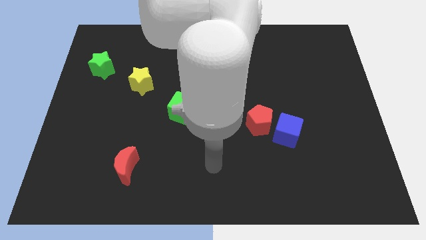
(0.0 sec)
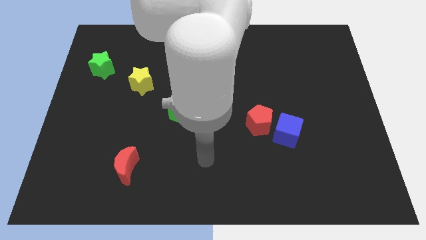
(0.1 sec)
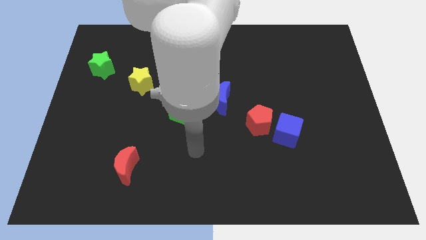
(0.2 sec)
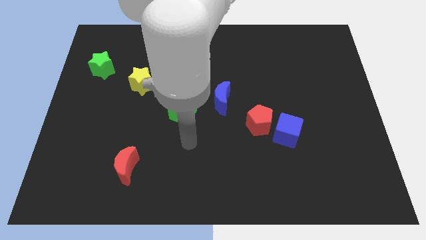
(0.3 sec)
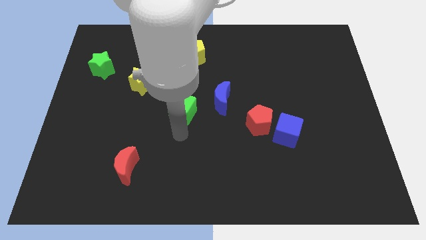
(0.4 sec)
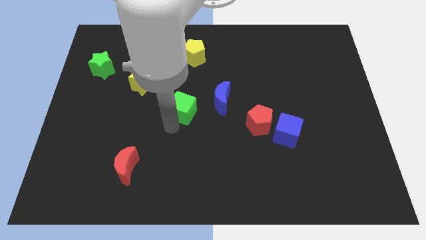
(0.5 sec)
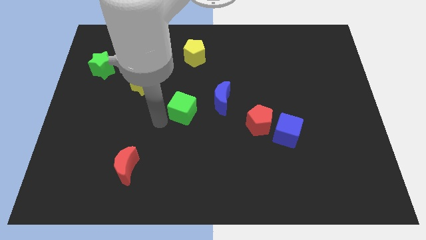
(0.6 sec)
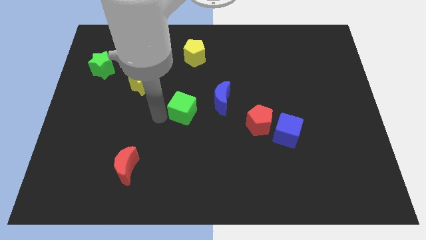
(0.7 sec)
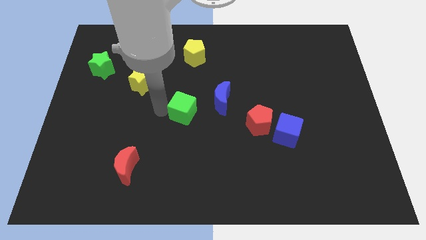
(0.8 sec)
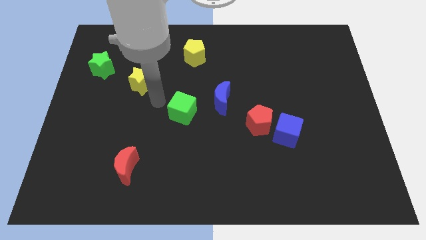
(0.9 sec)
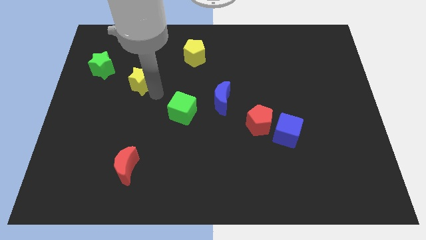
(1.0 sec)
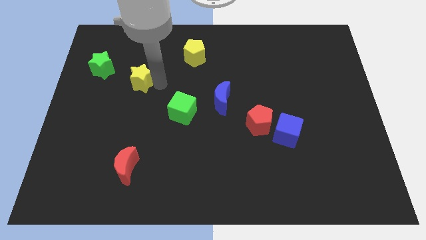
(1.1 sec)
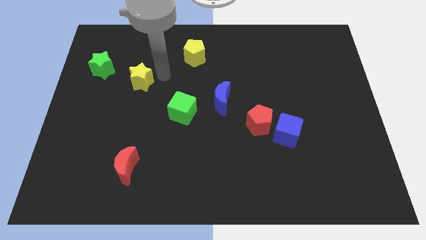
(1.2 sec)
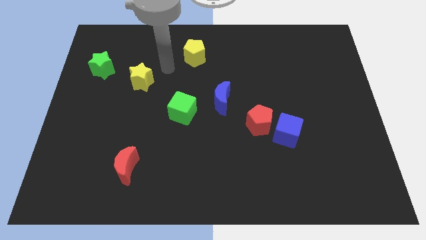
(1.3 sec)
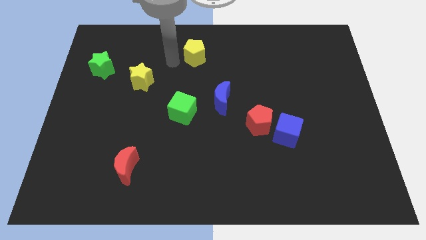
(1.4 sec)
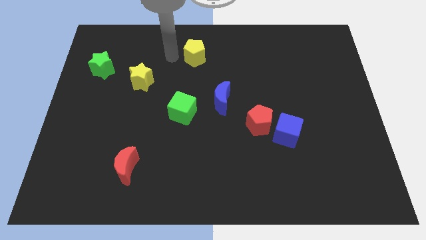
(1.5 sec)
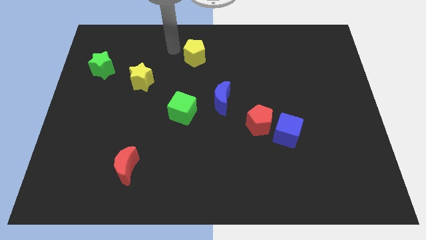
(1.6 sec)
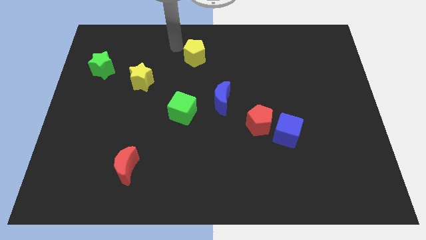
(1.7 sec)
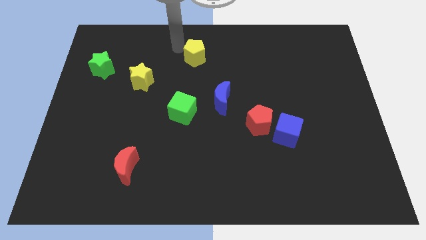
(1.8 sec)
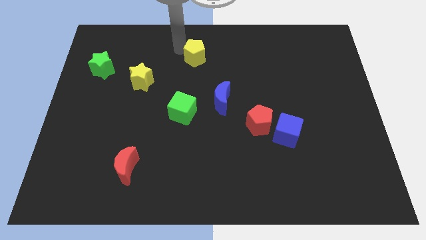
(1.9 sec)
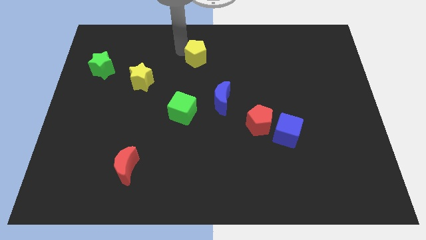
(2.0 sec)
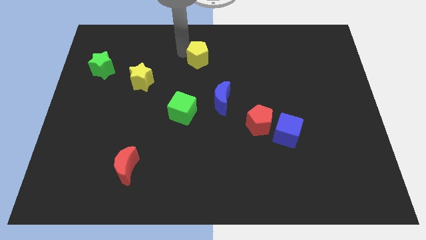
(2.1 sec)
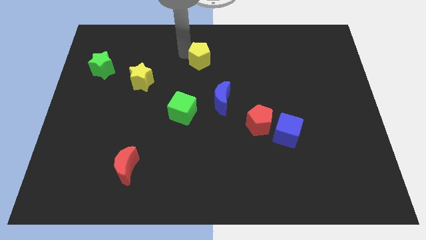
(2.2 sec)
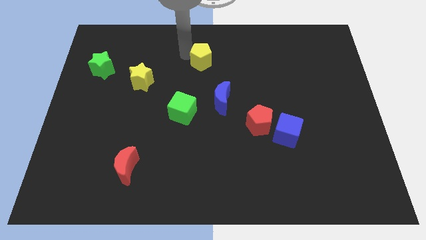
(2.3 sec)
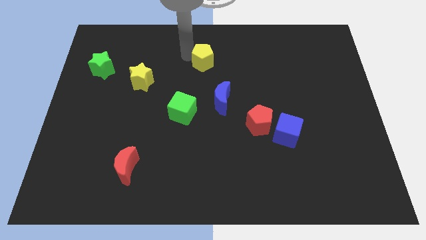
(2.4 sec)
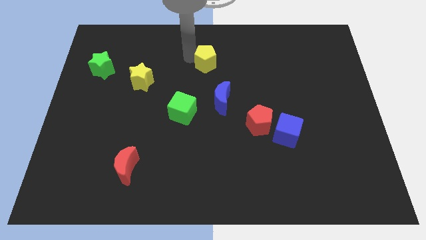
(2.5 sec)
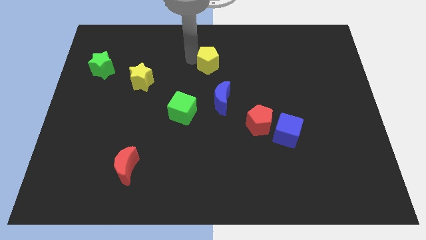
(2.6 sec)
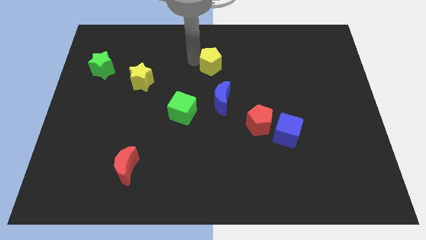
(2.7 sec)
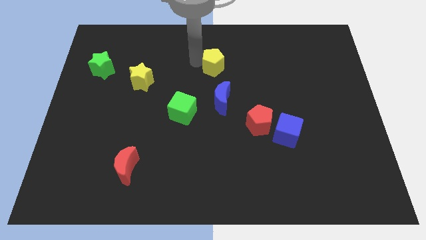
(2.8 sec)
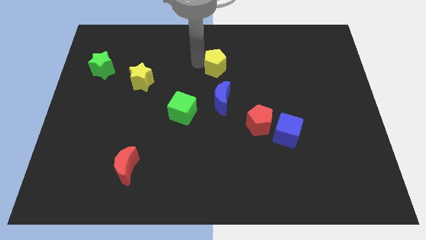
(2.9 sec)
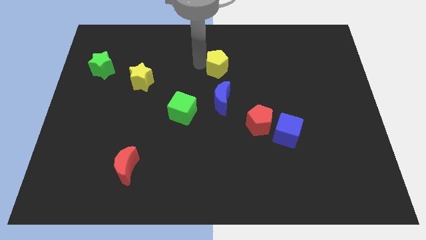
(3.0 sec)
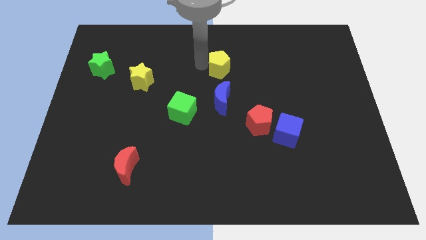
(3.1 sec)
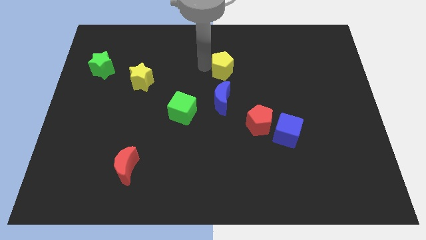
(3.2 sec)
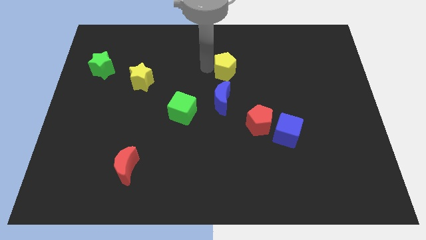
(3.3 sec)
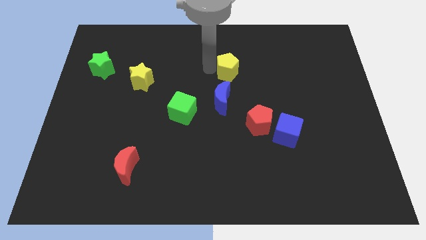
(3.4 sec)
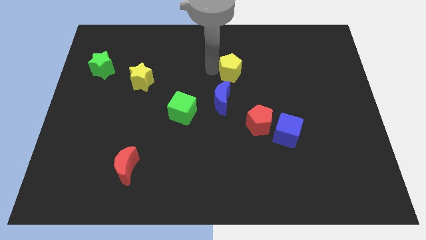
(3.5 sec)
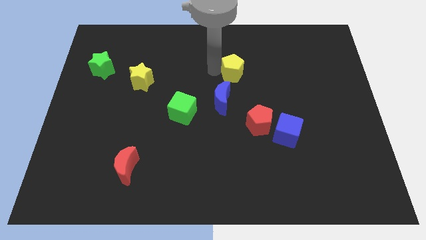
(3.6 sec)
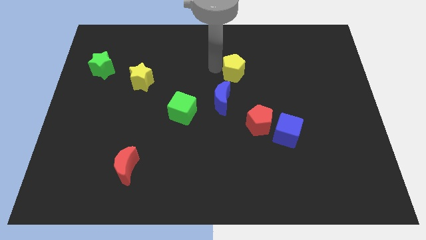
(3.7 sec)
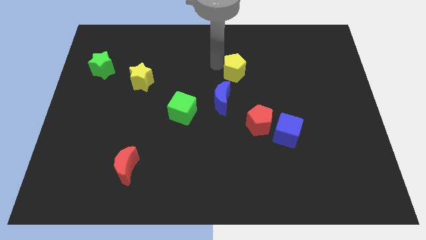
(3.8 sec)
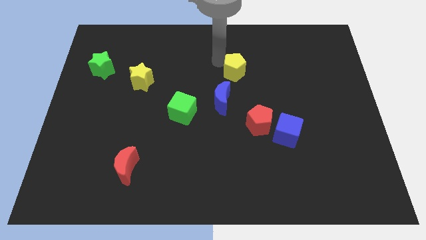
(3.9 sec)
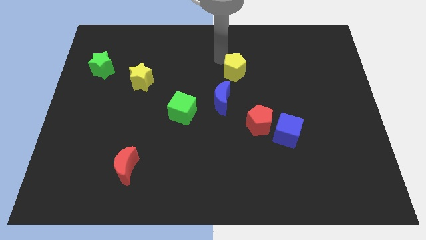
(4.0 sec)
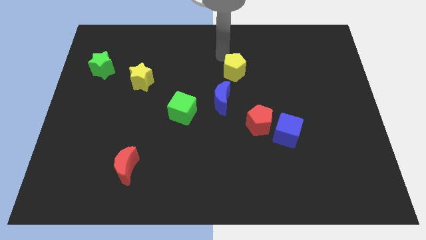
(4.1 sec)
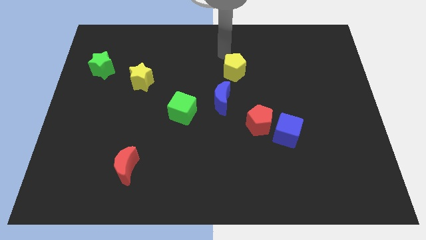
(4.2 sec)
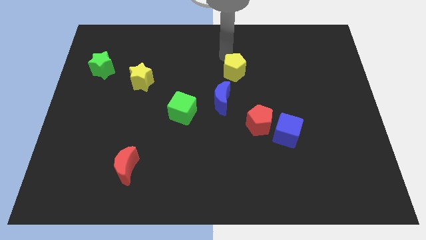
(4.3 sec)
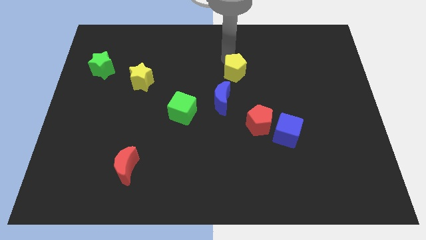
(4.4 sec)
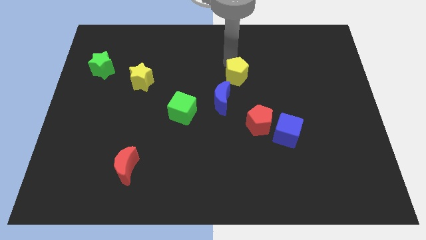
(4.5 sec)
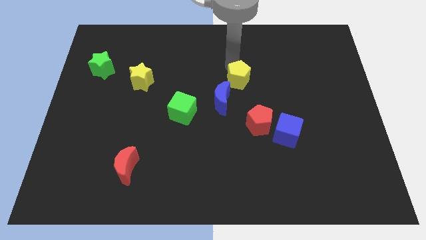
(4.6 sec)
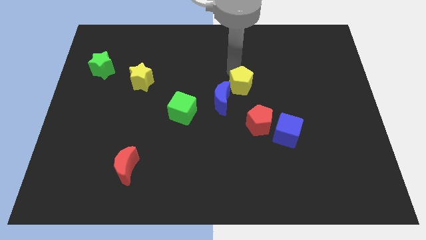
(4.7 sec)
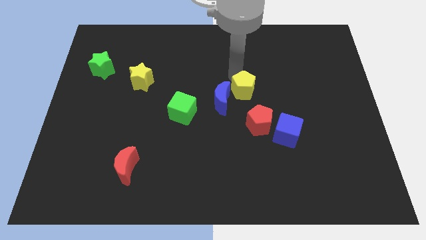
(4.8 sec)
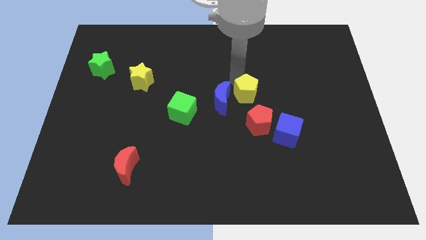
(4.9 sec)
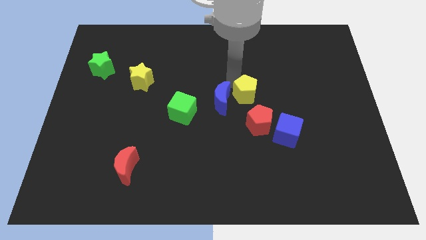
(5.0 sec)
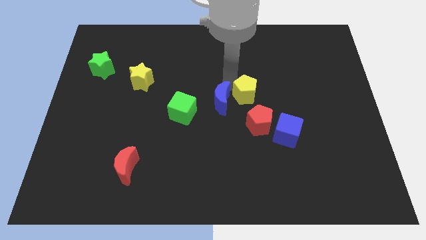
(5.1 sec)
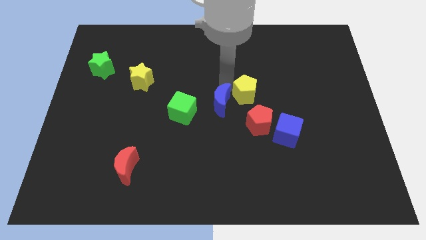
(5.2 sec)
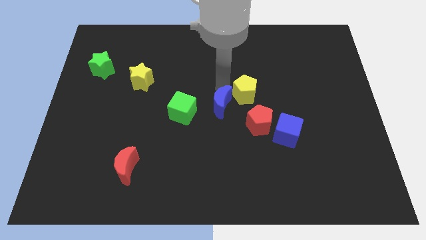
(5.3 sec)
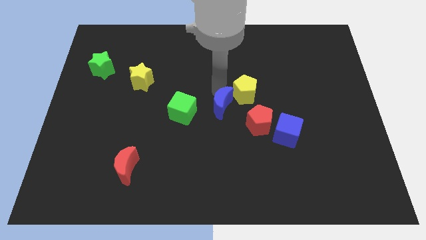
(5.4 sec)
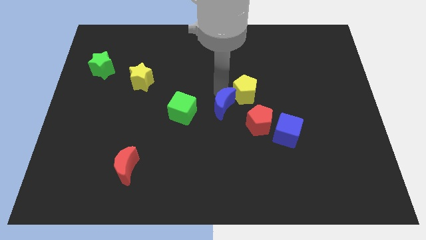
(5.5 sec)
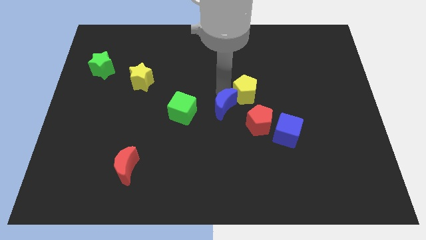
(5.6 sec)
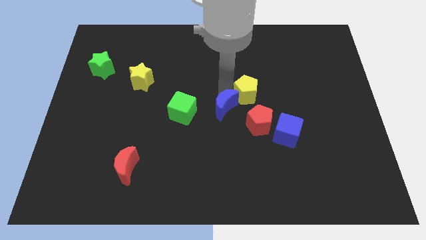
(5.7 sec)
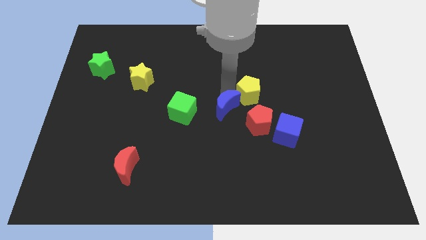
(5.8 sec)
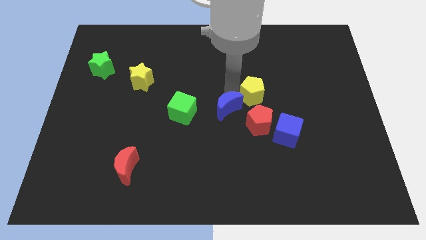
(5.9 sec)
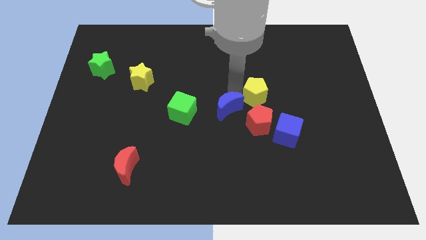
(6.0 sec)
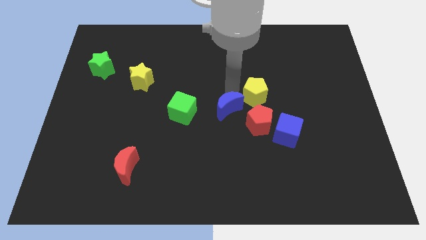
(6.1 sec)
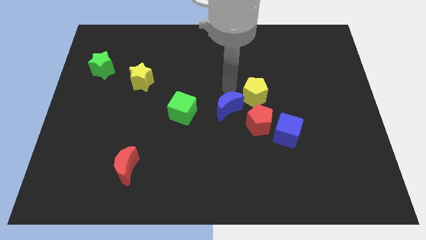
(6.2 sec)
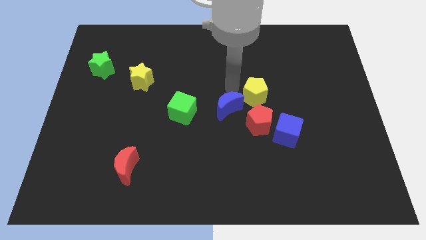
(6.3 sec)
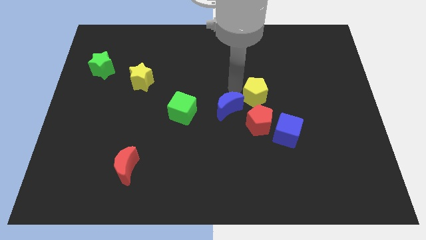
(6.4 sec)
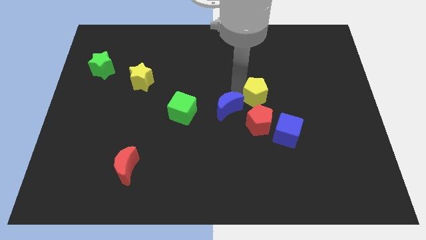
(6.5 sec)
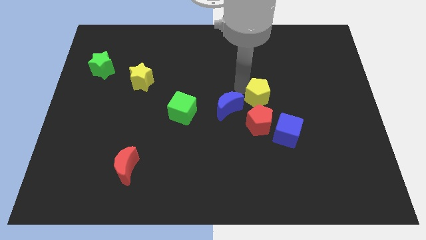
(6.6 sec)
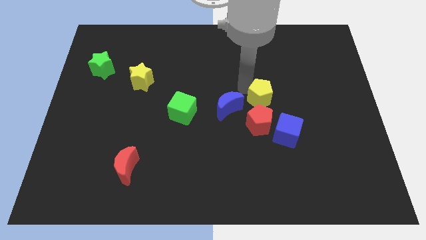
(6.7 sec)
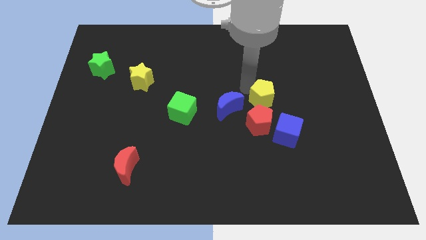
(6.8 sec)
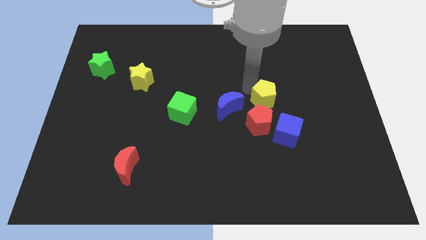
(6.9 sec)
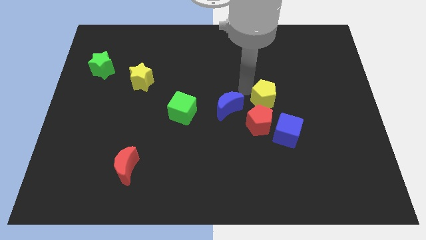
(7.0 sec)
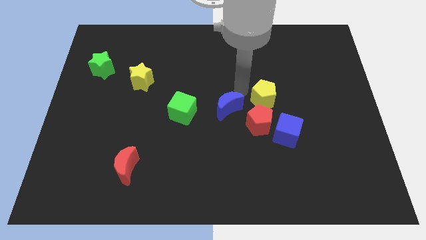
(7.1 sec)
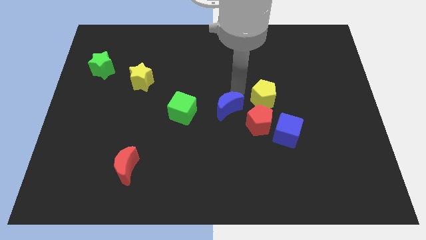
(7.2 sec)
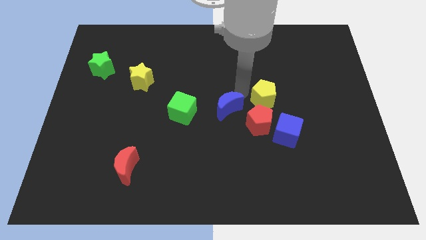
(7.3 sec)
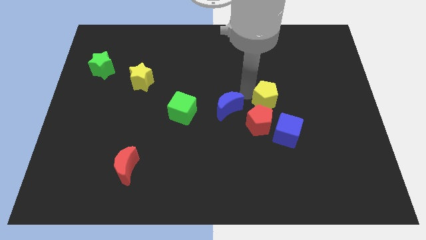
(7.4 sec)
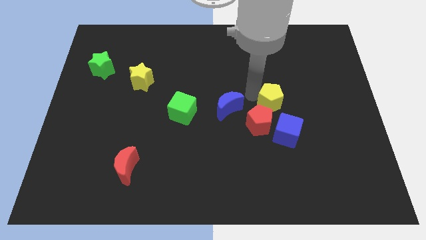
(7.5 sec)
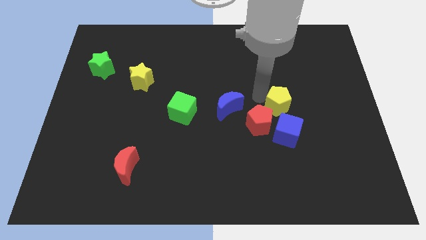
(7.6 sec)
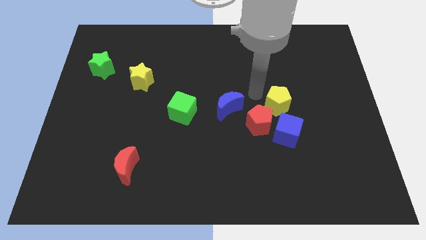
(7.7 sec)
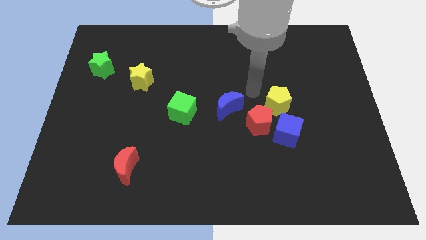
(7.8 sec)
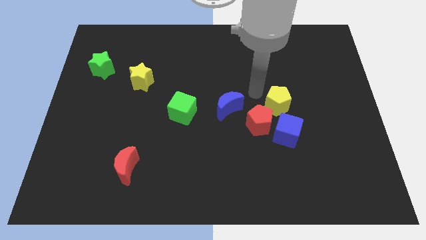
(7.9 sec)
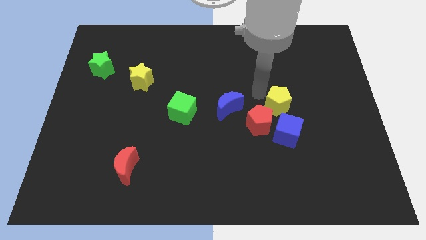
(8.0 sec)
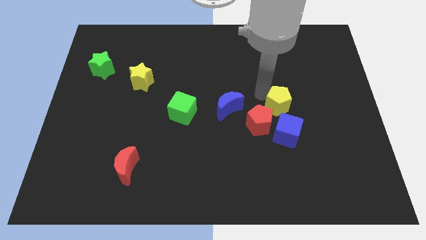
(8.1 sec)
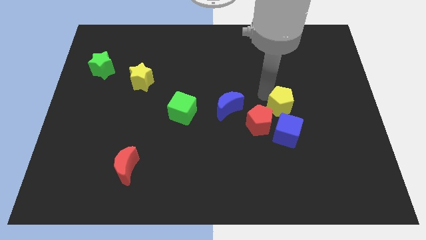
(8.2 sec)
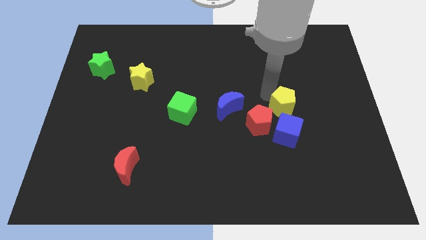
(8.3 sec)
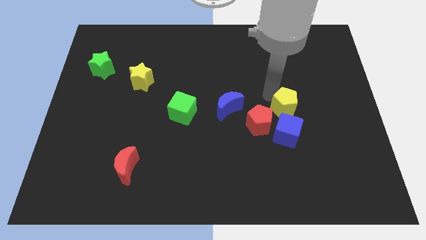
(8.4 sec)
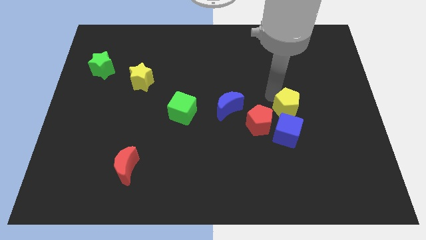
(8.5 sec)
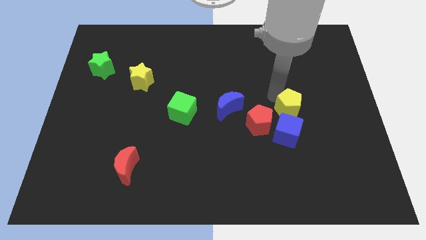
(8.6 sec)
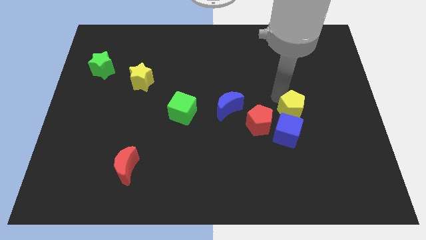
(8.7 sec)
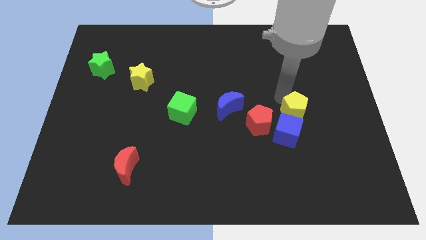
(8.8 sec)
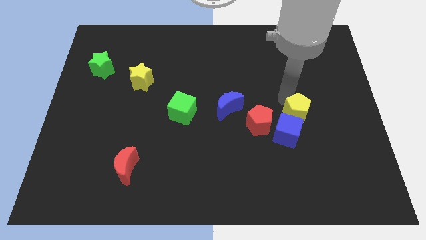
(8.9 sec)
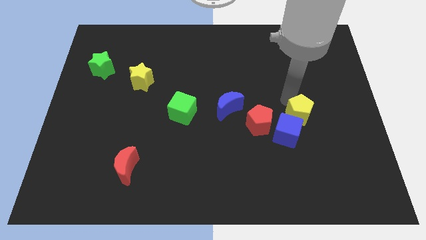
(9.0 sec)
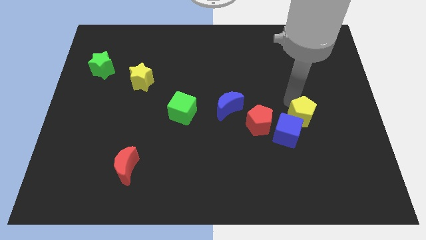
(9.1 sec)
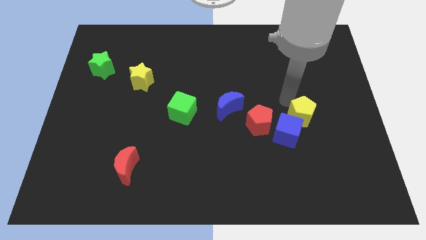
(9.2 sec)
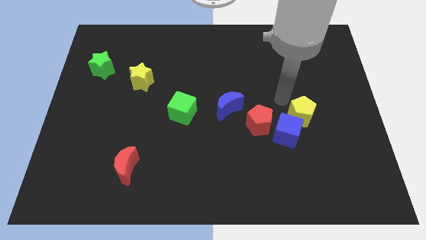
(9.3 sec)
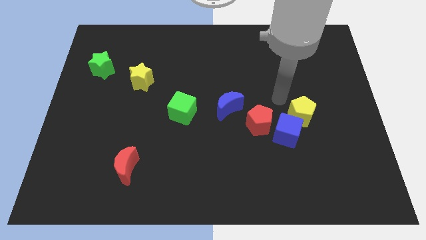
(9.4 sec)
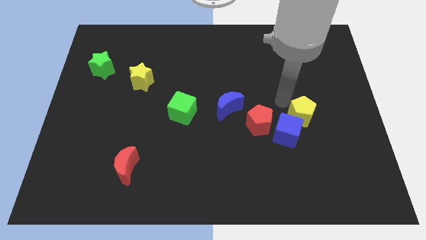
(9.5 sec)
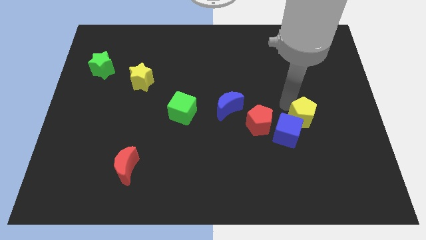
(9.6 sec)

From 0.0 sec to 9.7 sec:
push the yellow pentagon just right of the blue cube
